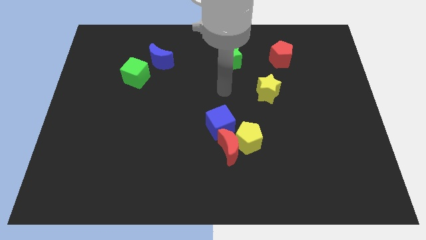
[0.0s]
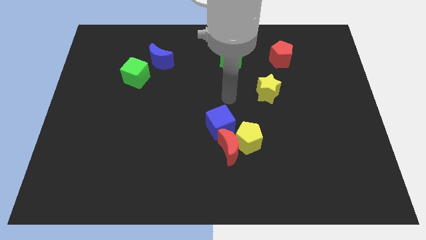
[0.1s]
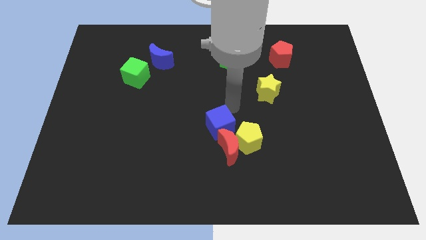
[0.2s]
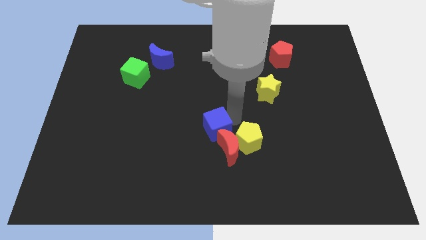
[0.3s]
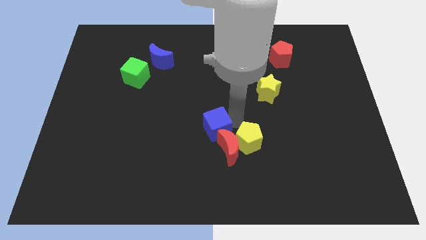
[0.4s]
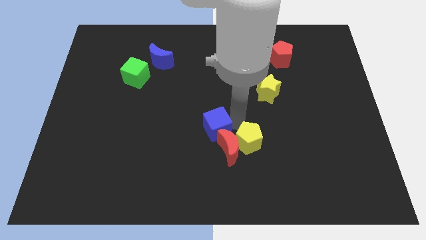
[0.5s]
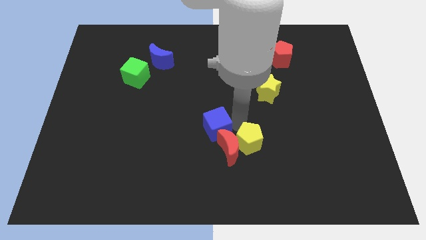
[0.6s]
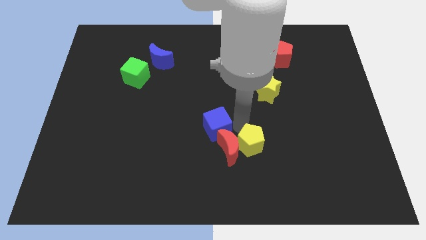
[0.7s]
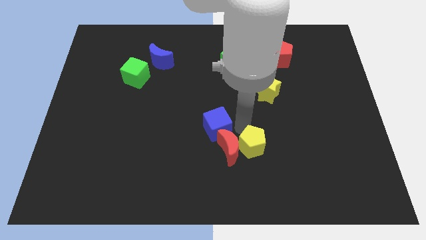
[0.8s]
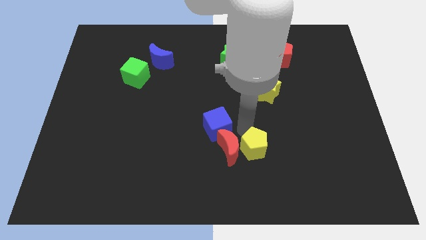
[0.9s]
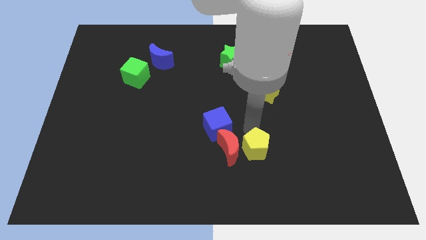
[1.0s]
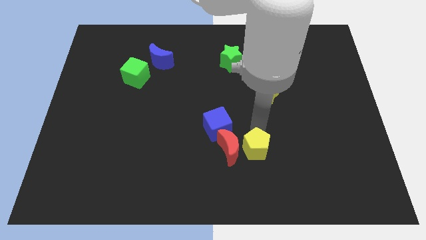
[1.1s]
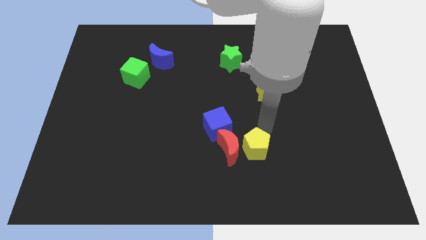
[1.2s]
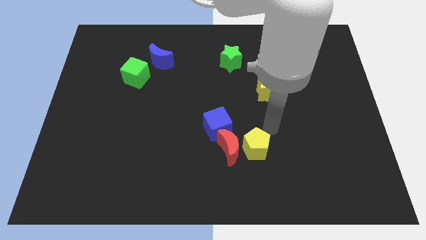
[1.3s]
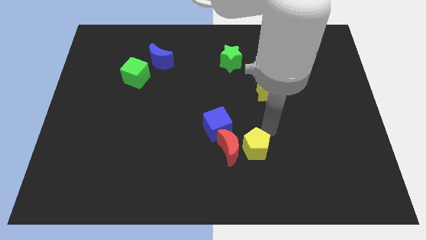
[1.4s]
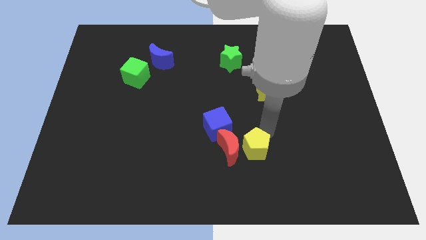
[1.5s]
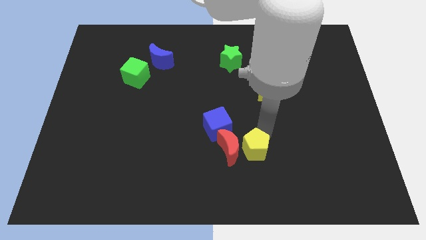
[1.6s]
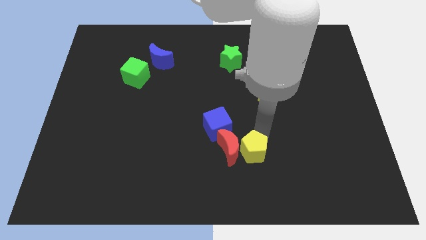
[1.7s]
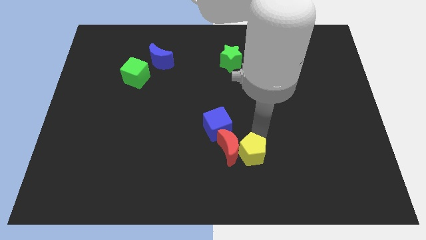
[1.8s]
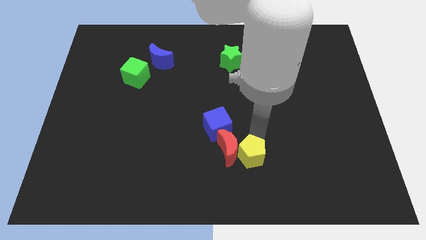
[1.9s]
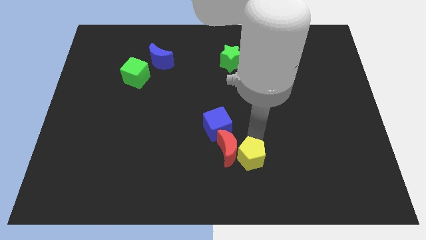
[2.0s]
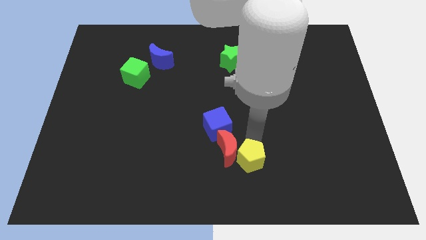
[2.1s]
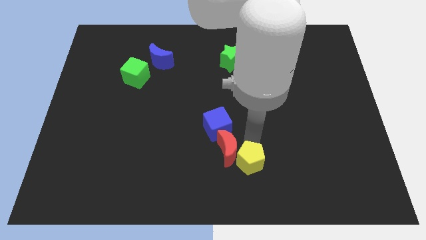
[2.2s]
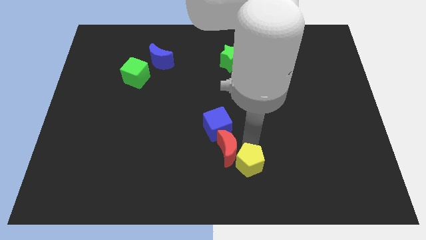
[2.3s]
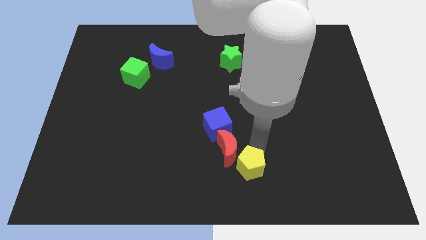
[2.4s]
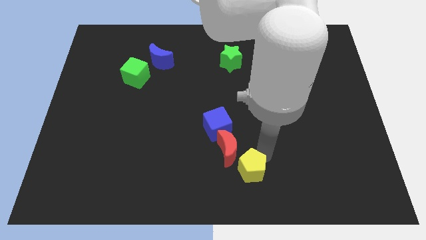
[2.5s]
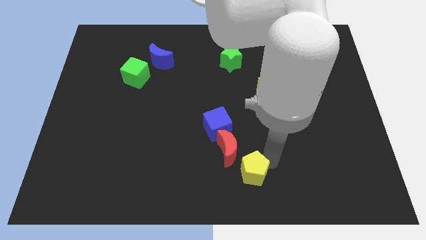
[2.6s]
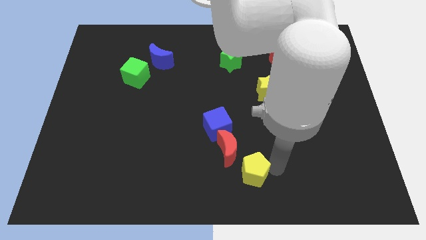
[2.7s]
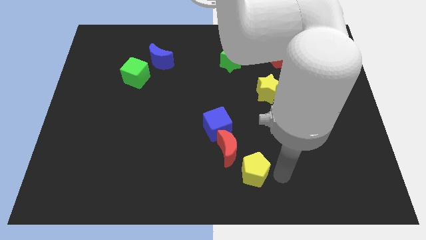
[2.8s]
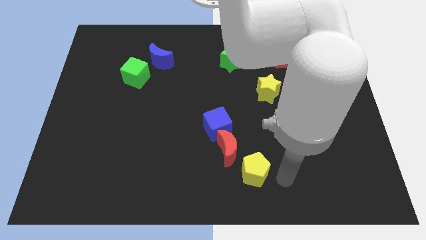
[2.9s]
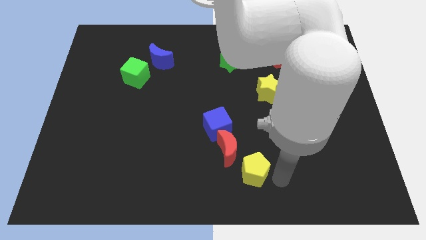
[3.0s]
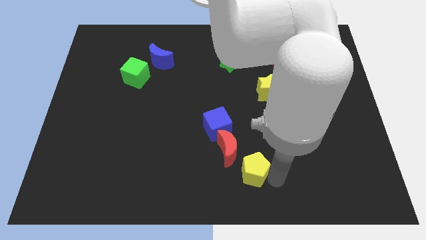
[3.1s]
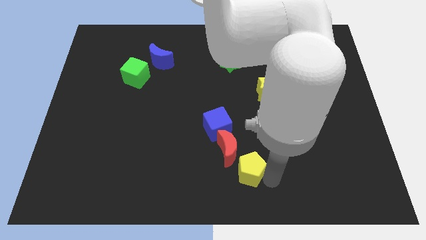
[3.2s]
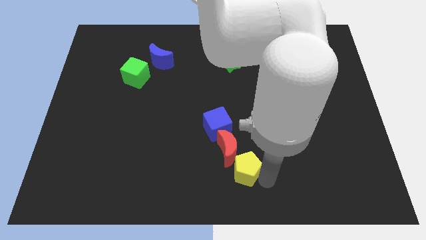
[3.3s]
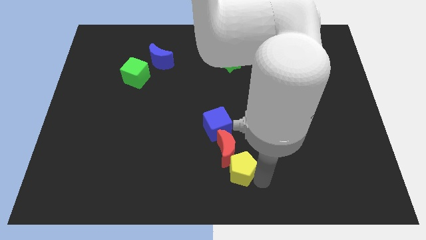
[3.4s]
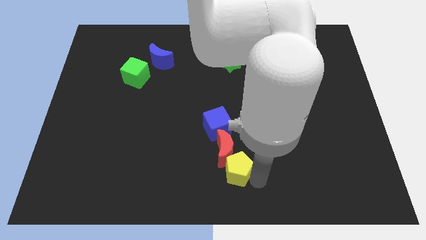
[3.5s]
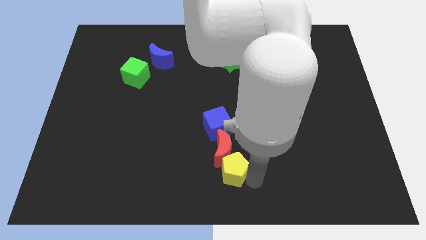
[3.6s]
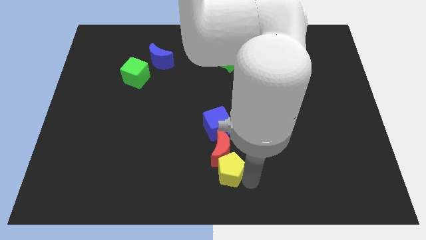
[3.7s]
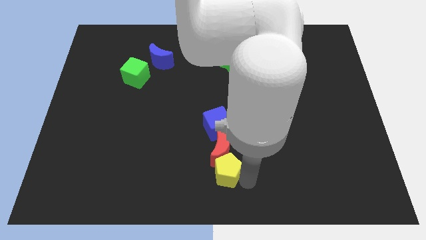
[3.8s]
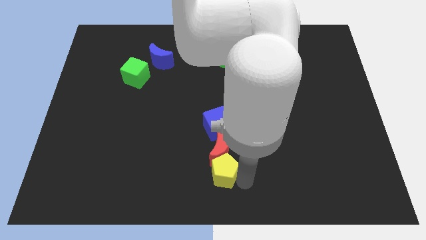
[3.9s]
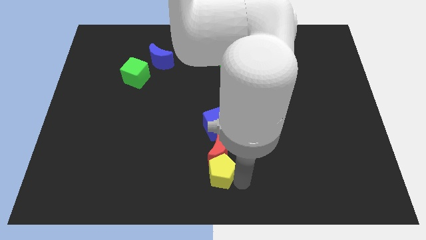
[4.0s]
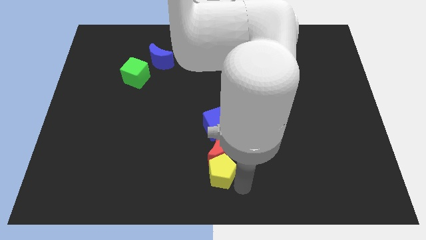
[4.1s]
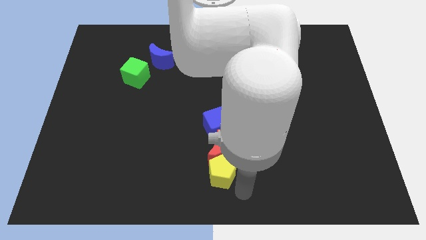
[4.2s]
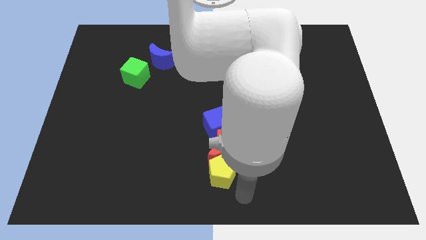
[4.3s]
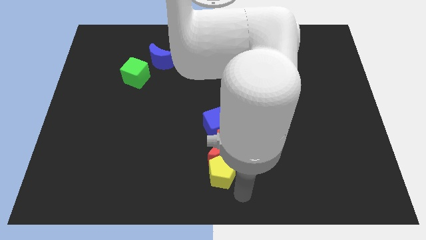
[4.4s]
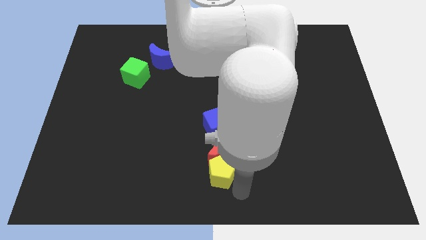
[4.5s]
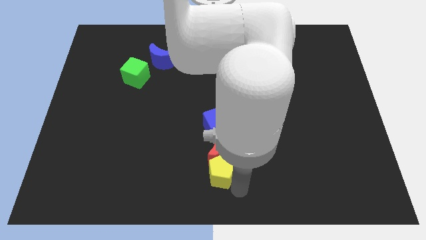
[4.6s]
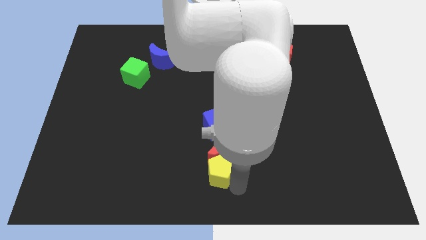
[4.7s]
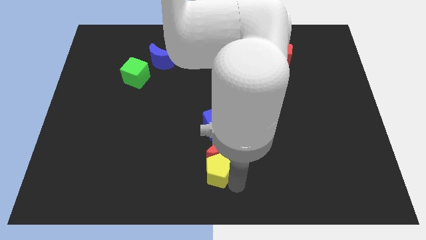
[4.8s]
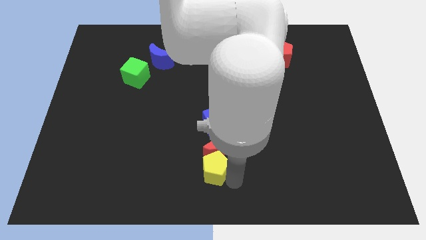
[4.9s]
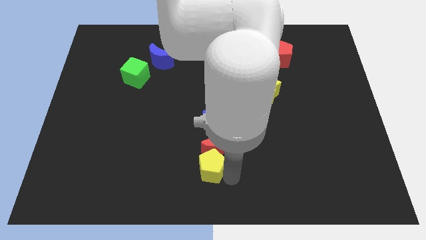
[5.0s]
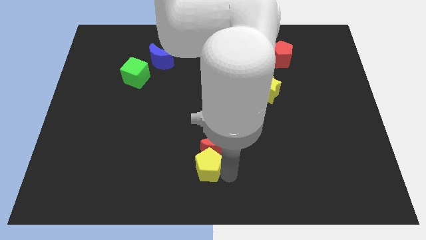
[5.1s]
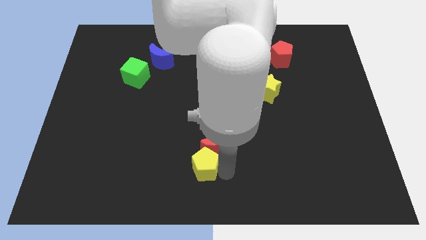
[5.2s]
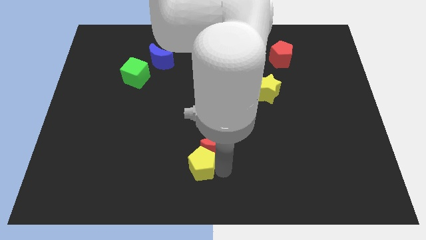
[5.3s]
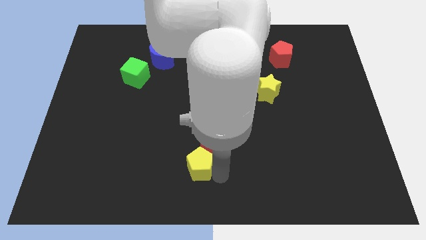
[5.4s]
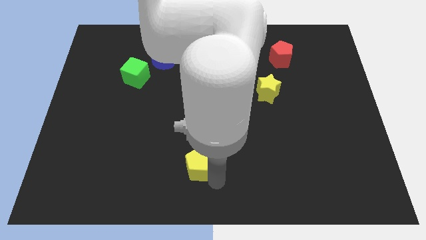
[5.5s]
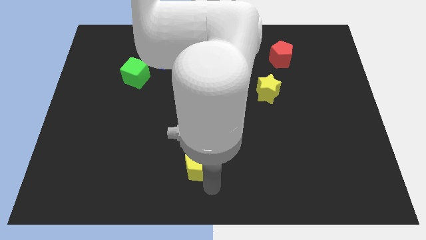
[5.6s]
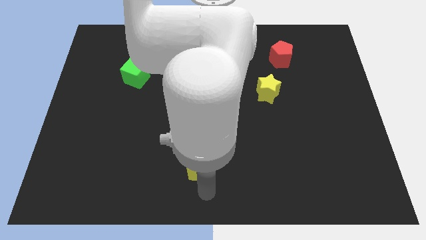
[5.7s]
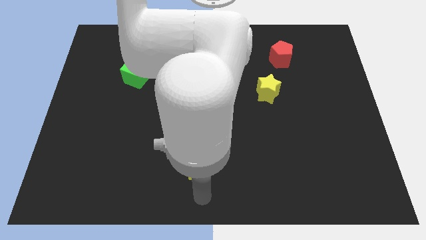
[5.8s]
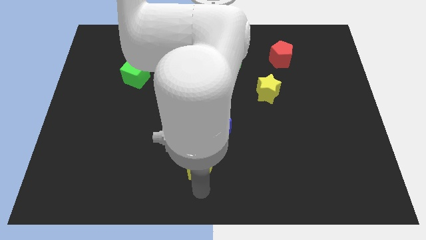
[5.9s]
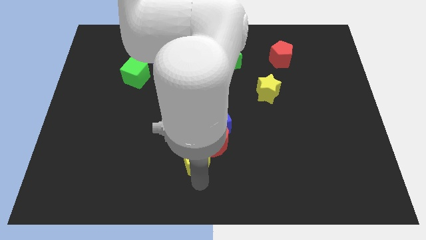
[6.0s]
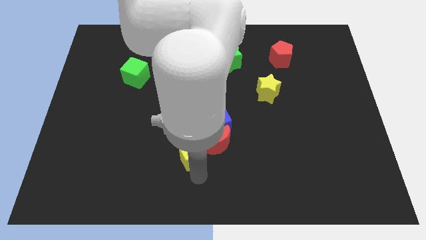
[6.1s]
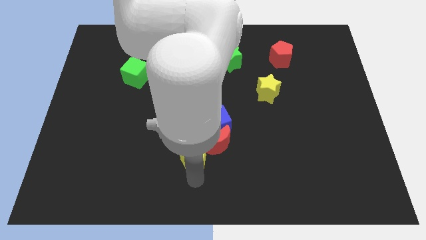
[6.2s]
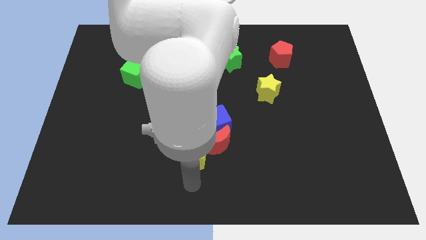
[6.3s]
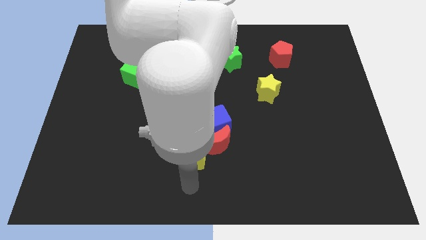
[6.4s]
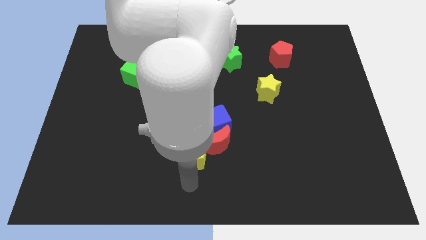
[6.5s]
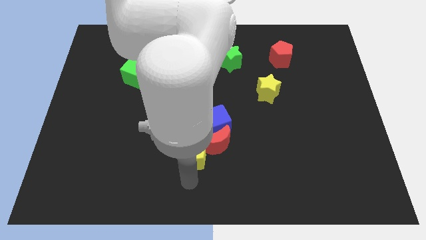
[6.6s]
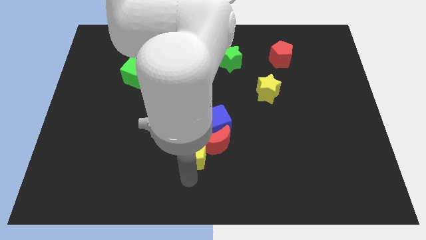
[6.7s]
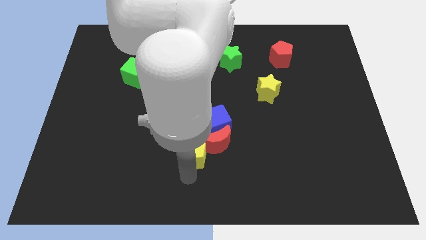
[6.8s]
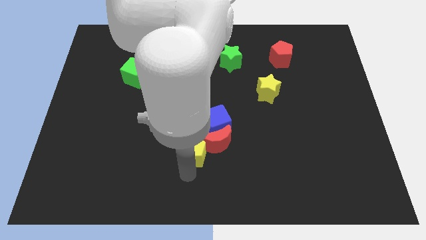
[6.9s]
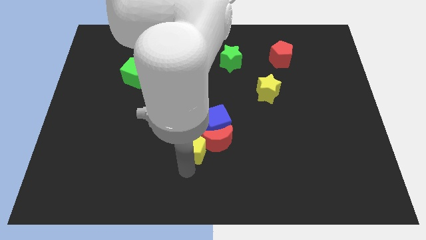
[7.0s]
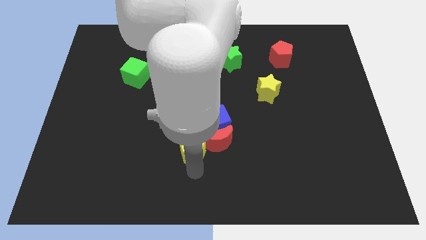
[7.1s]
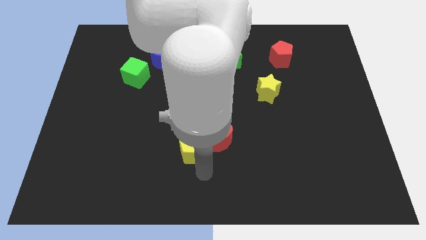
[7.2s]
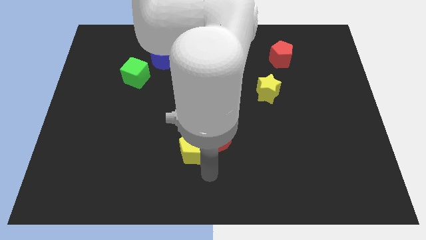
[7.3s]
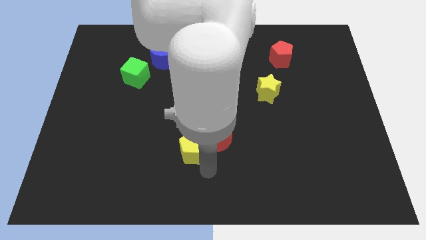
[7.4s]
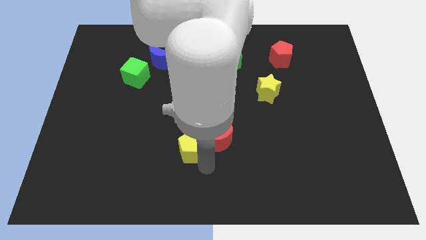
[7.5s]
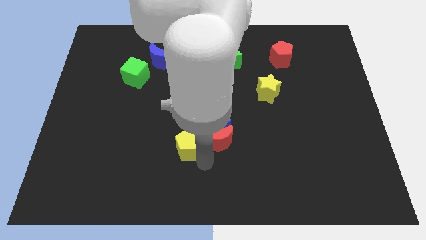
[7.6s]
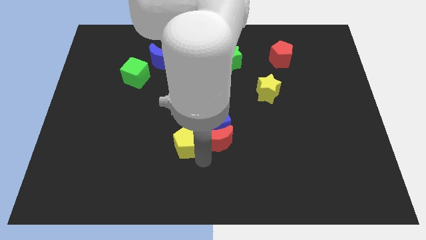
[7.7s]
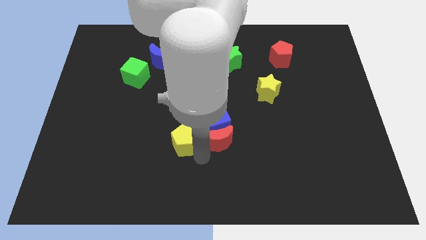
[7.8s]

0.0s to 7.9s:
push the yellow pentagon just left of the blue cube
